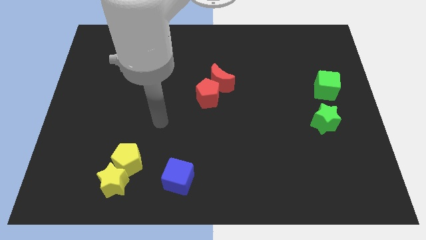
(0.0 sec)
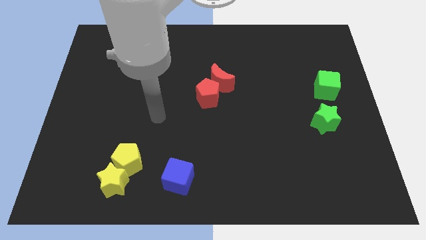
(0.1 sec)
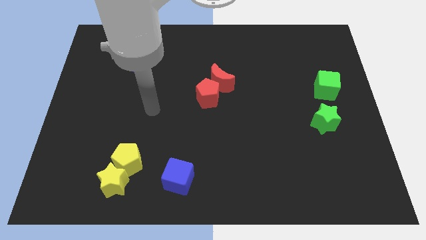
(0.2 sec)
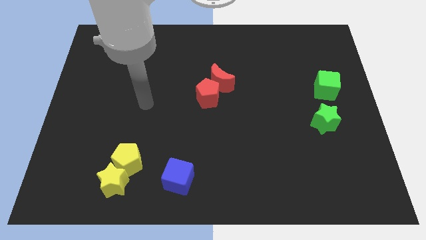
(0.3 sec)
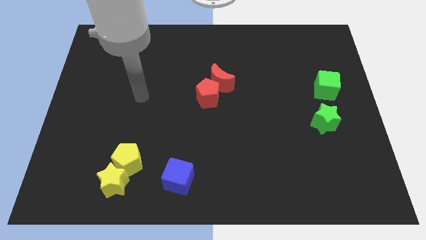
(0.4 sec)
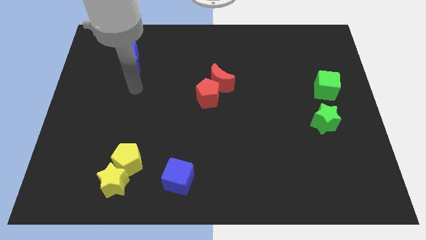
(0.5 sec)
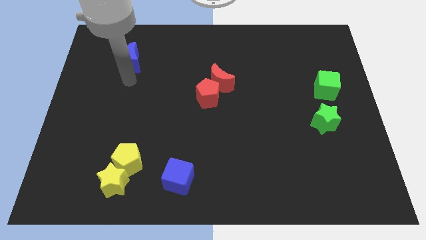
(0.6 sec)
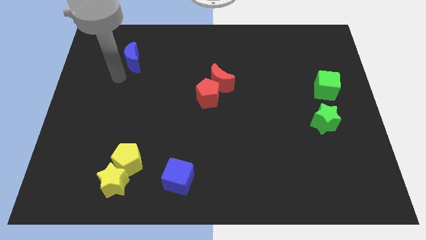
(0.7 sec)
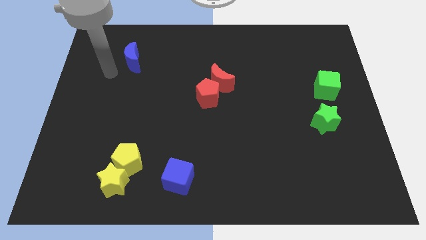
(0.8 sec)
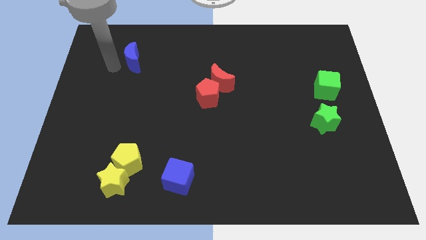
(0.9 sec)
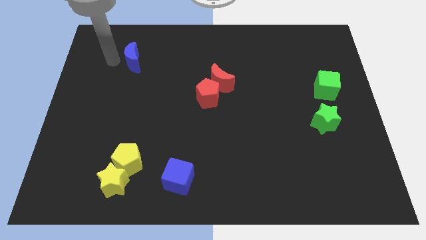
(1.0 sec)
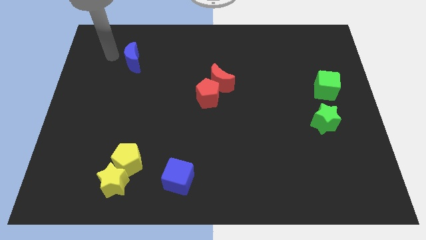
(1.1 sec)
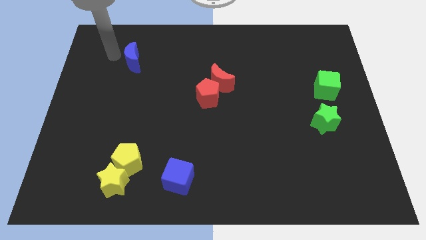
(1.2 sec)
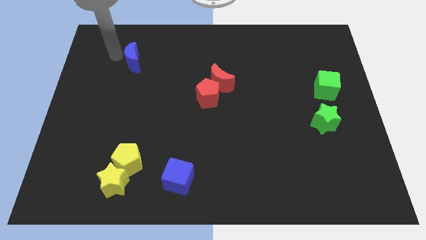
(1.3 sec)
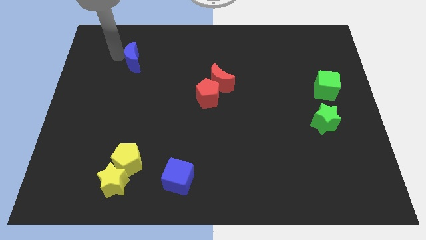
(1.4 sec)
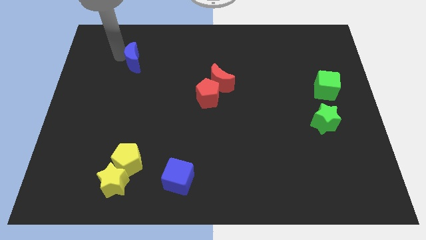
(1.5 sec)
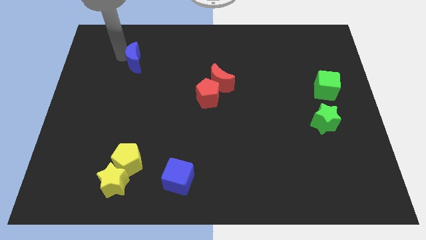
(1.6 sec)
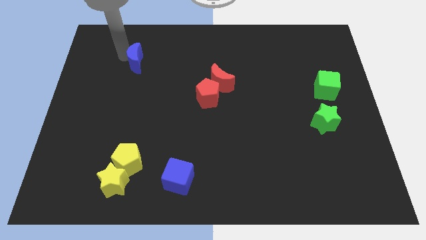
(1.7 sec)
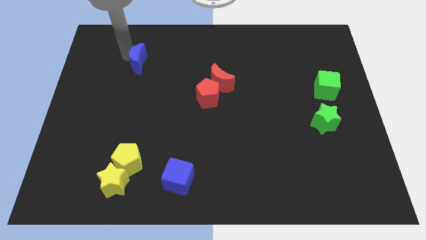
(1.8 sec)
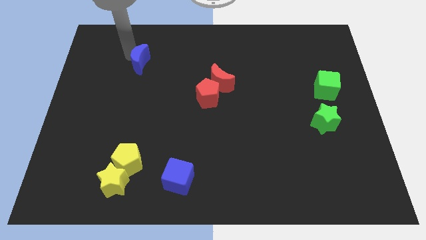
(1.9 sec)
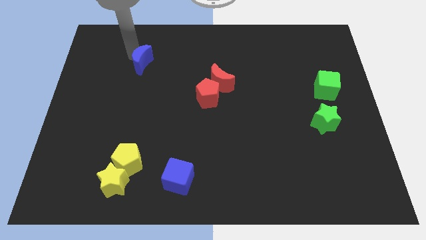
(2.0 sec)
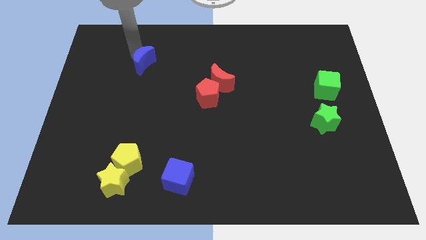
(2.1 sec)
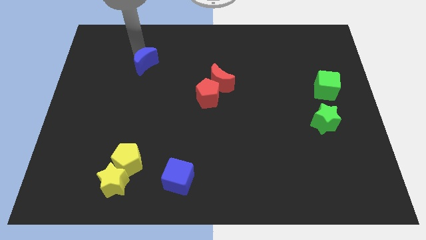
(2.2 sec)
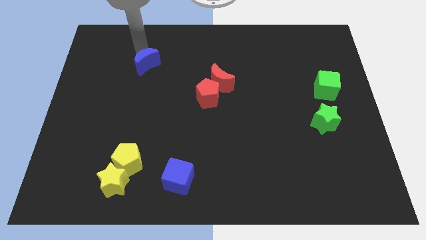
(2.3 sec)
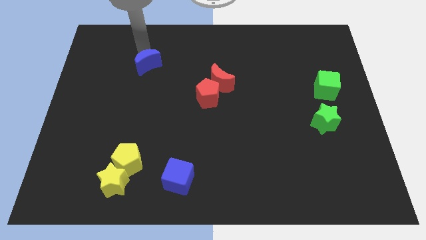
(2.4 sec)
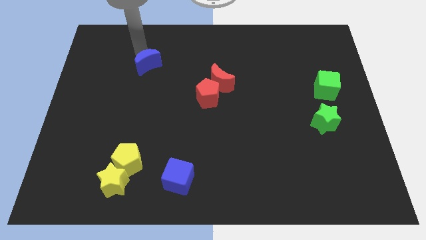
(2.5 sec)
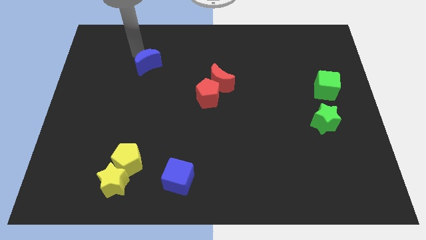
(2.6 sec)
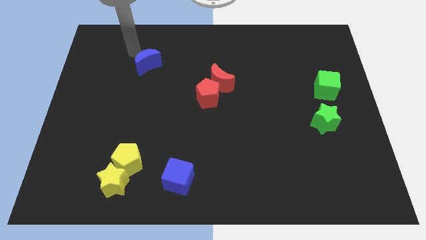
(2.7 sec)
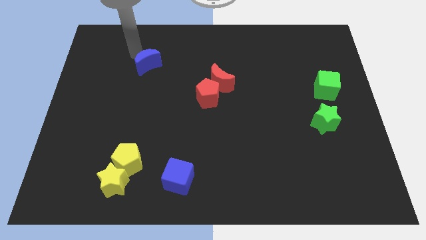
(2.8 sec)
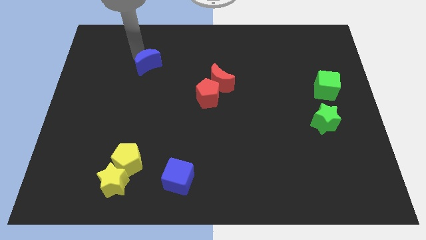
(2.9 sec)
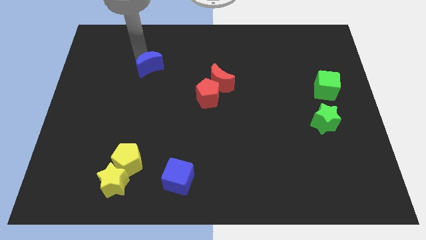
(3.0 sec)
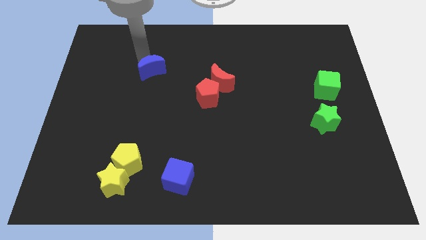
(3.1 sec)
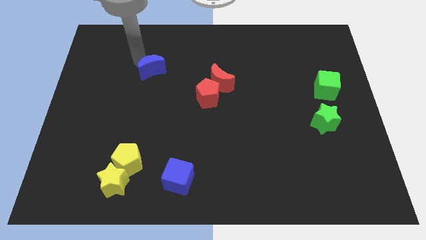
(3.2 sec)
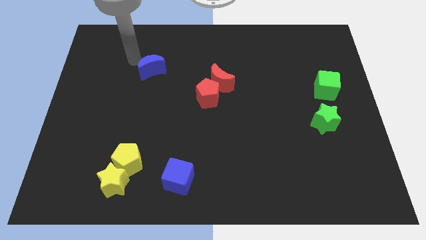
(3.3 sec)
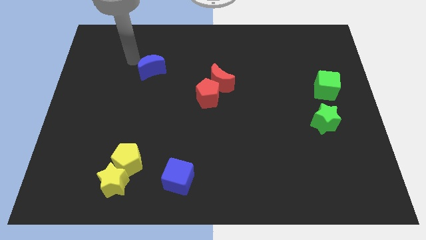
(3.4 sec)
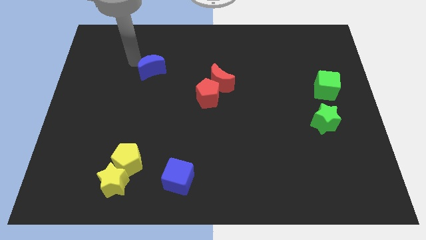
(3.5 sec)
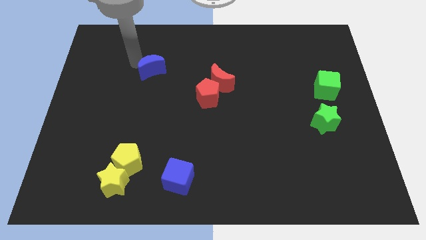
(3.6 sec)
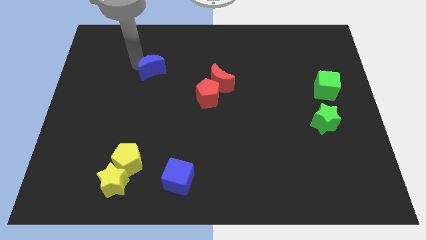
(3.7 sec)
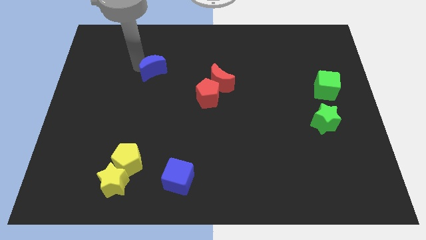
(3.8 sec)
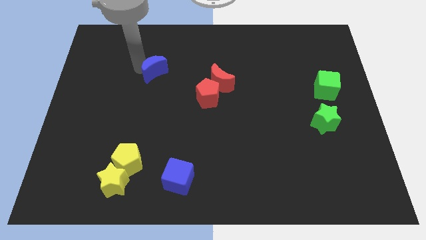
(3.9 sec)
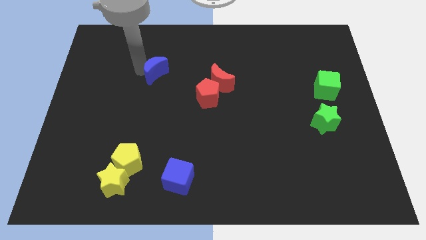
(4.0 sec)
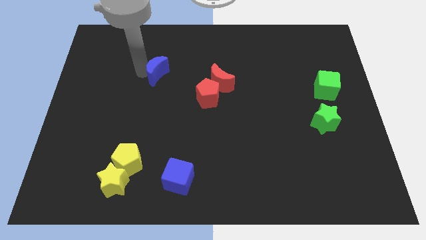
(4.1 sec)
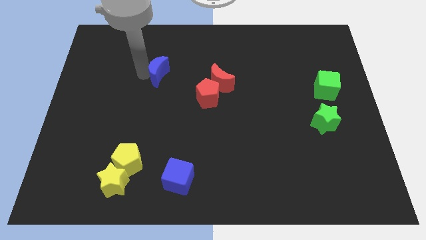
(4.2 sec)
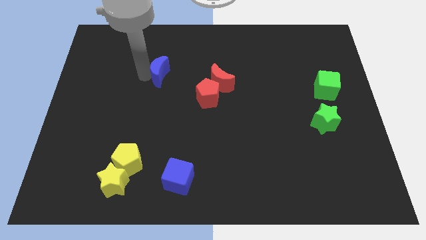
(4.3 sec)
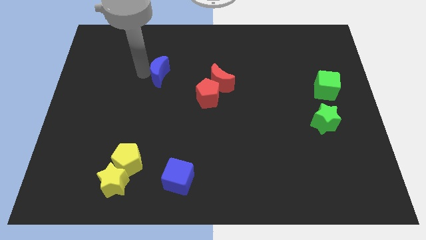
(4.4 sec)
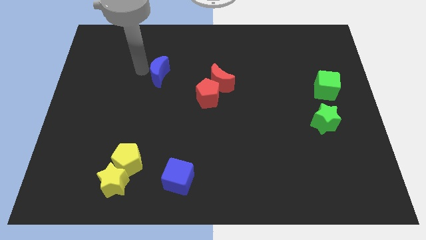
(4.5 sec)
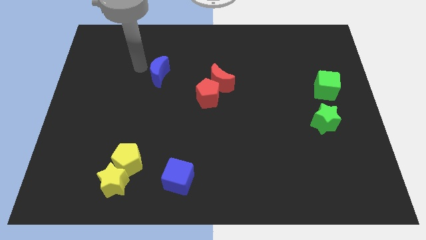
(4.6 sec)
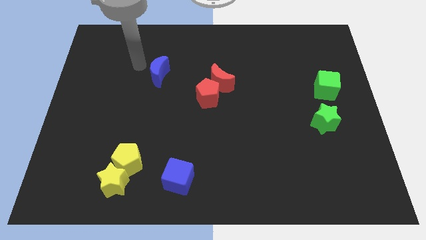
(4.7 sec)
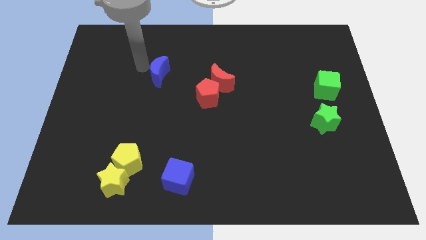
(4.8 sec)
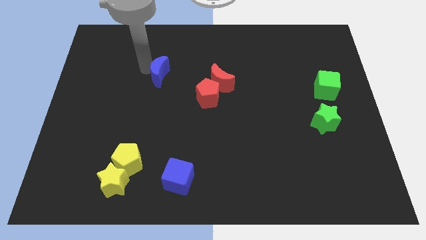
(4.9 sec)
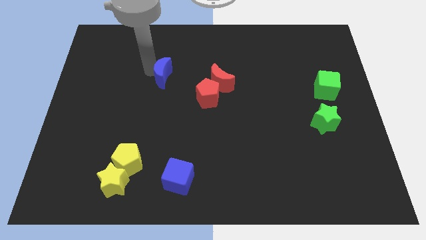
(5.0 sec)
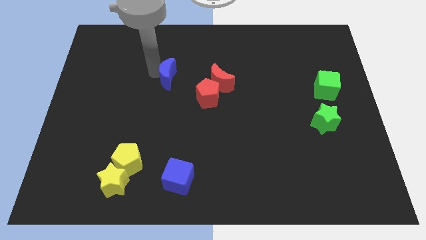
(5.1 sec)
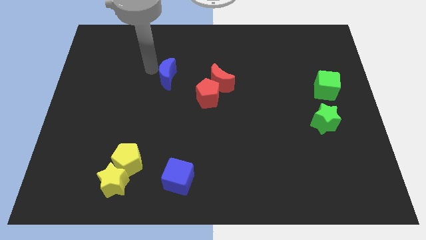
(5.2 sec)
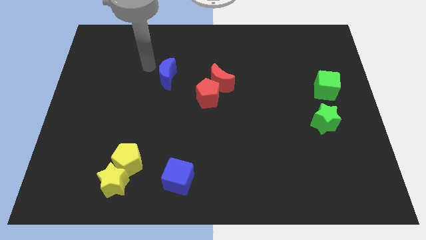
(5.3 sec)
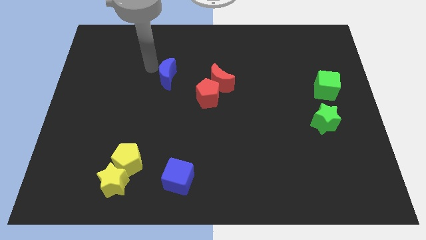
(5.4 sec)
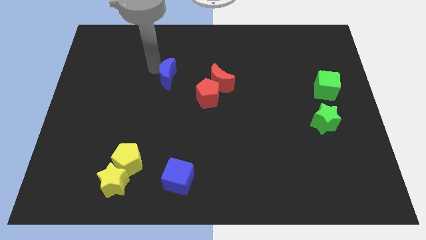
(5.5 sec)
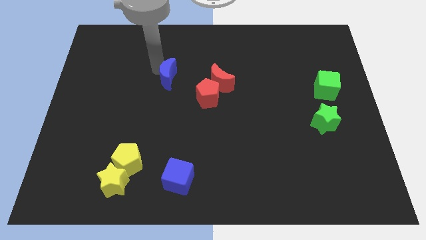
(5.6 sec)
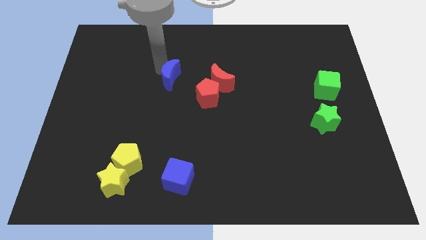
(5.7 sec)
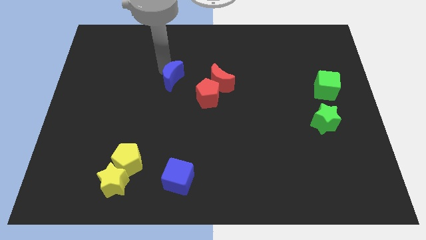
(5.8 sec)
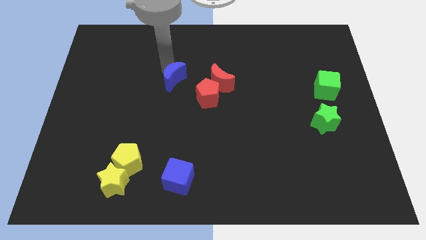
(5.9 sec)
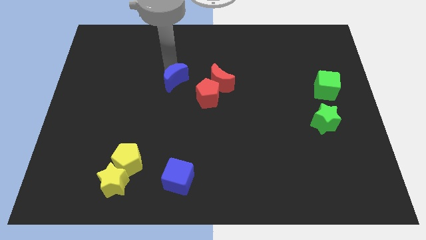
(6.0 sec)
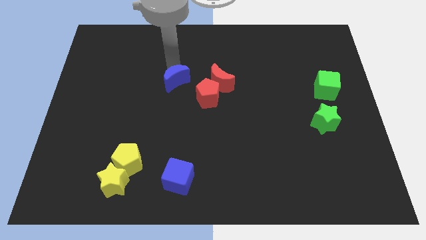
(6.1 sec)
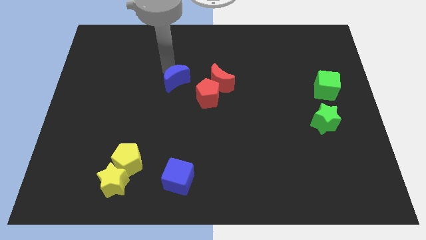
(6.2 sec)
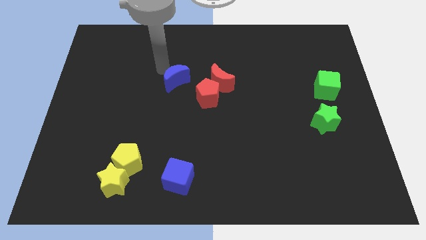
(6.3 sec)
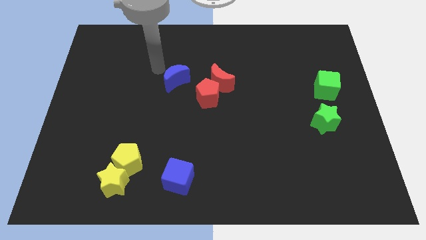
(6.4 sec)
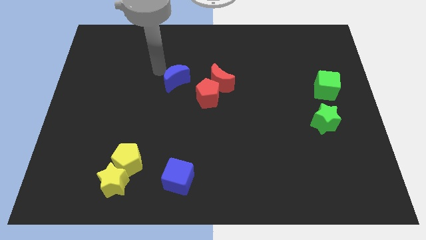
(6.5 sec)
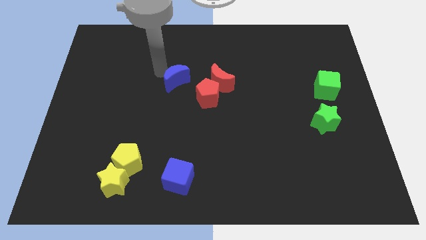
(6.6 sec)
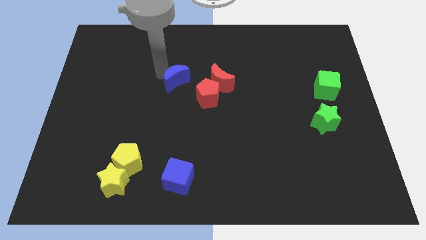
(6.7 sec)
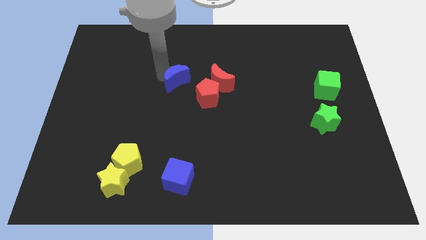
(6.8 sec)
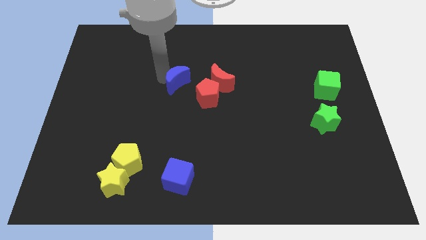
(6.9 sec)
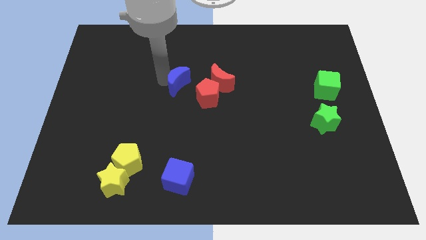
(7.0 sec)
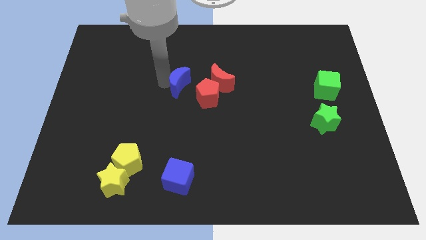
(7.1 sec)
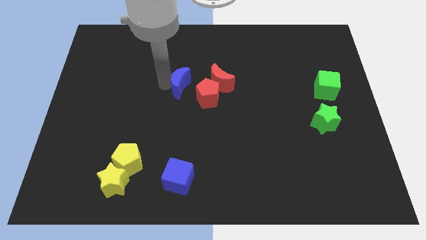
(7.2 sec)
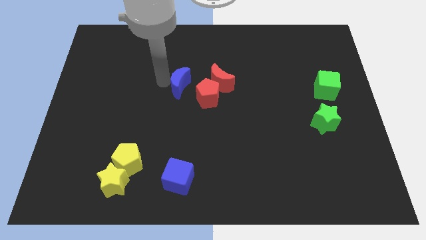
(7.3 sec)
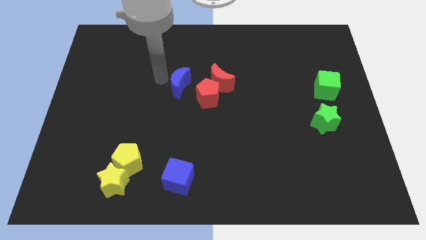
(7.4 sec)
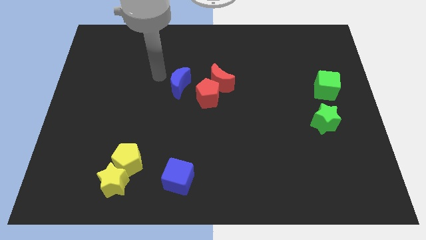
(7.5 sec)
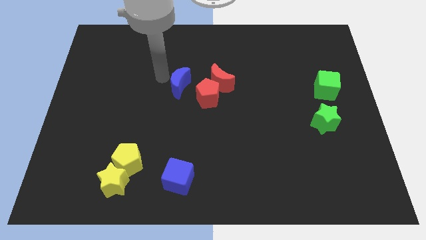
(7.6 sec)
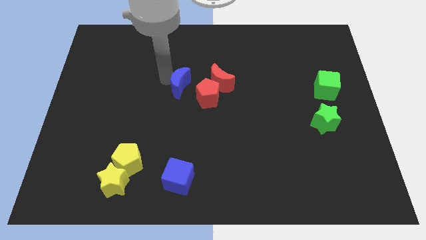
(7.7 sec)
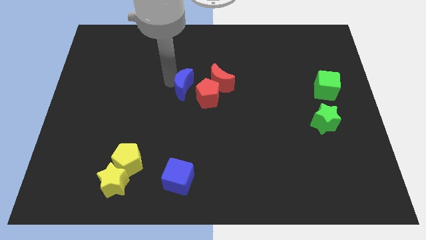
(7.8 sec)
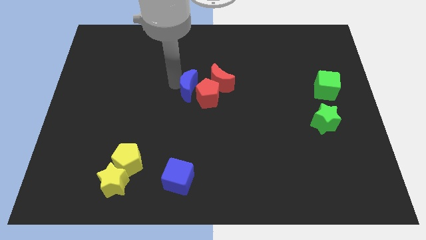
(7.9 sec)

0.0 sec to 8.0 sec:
slide the blue moon to the red pentagon
